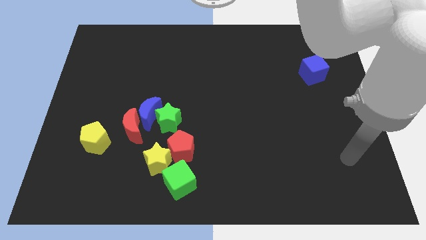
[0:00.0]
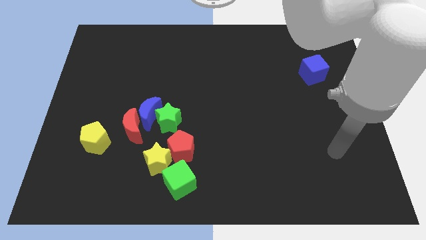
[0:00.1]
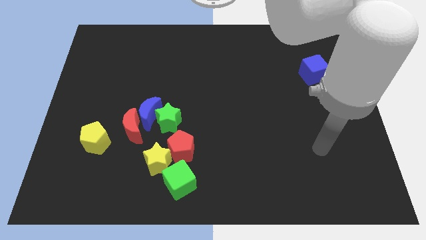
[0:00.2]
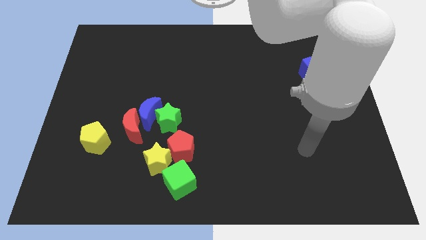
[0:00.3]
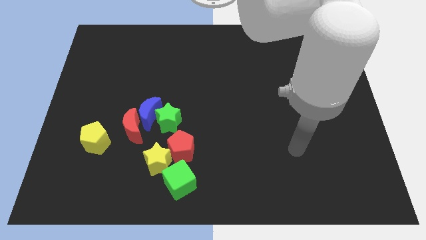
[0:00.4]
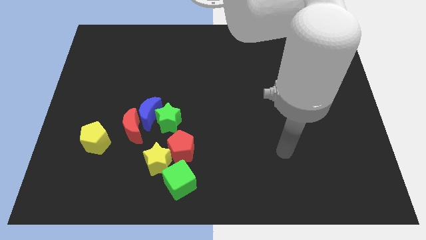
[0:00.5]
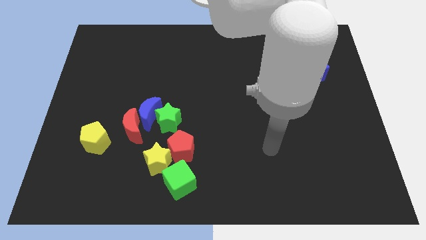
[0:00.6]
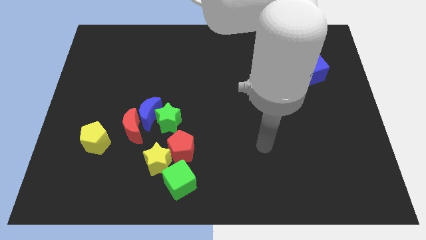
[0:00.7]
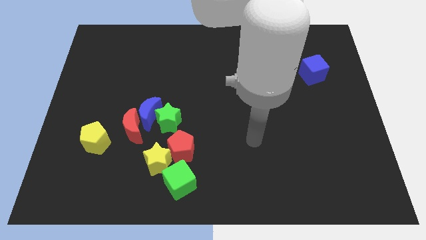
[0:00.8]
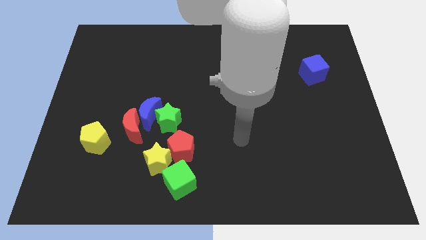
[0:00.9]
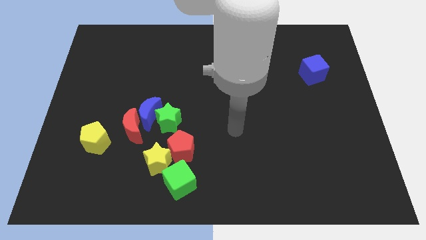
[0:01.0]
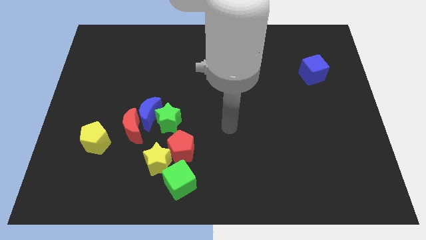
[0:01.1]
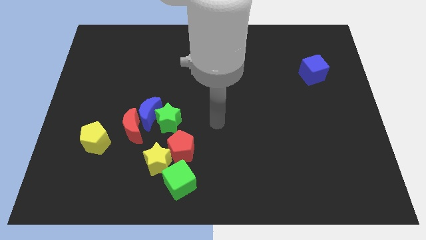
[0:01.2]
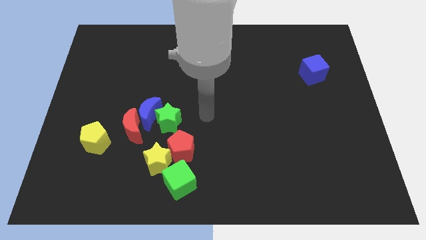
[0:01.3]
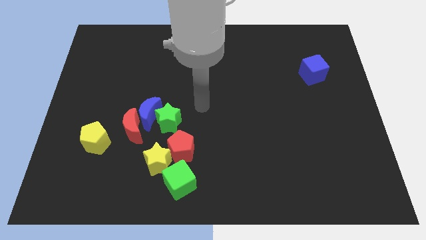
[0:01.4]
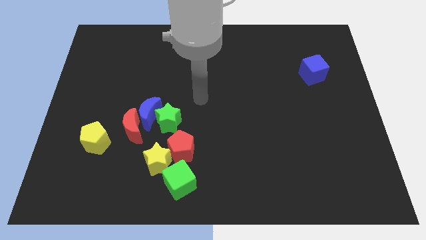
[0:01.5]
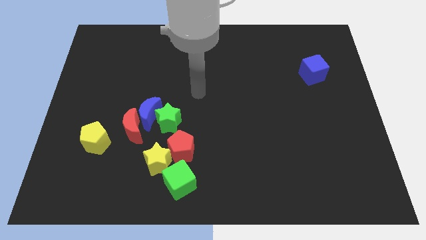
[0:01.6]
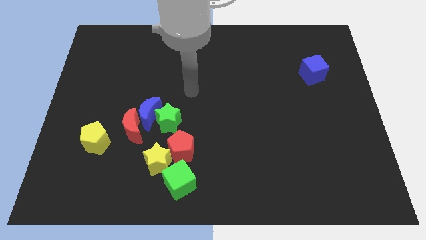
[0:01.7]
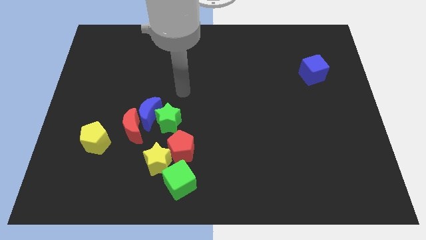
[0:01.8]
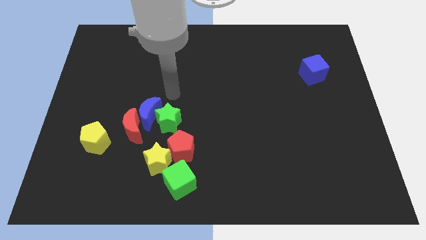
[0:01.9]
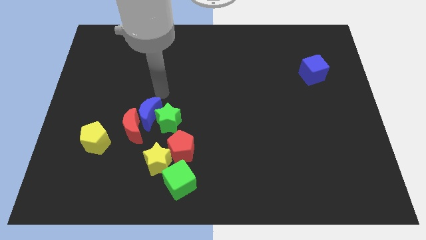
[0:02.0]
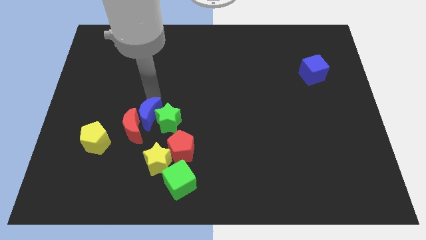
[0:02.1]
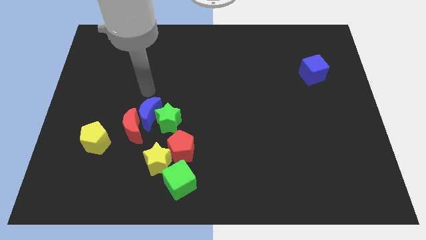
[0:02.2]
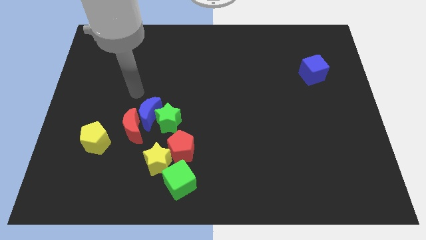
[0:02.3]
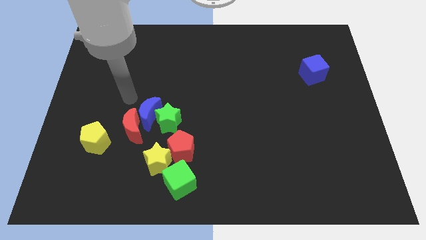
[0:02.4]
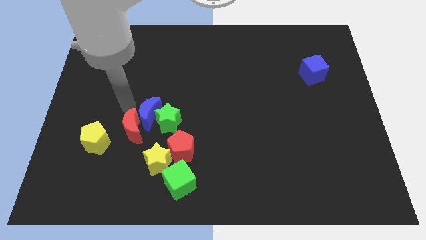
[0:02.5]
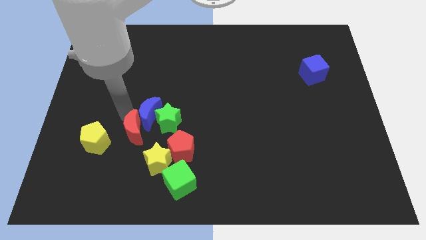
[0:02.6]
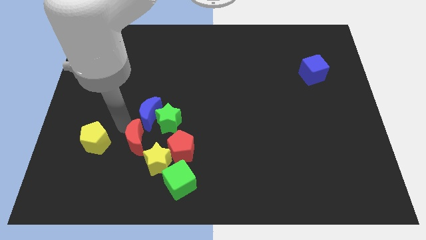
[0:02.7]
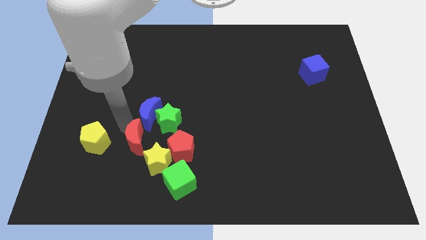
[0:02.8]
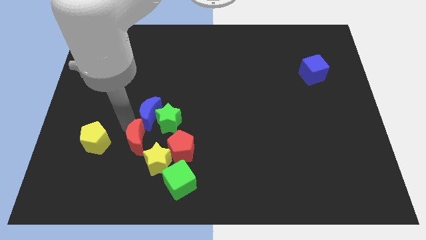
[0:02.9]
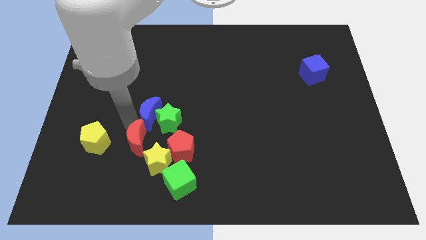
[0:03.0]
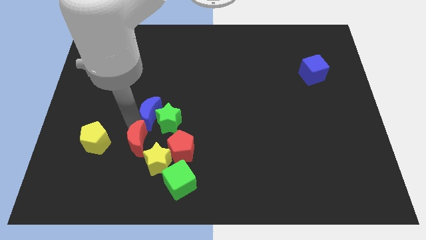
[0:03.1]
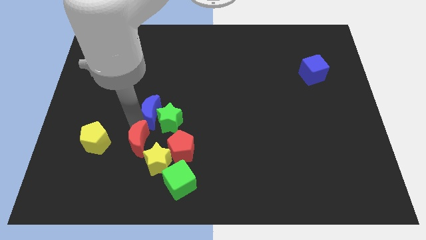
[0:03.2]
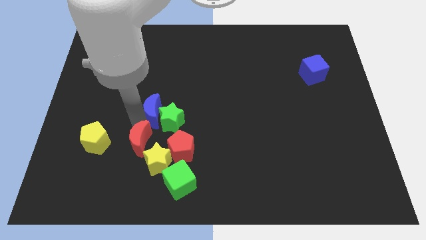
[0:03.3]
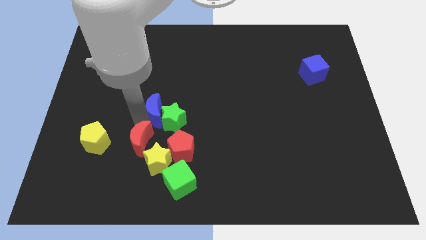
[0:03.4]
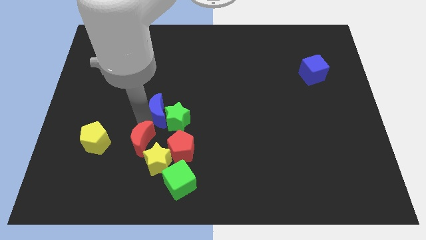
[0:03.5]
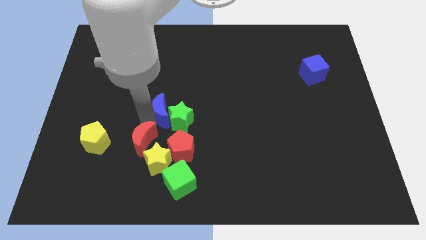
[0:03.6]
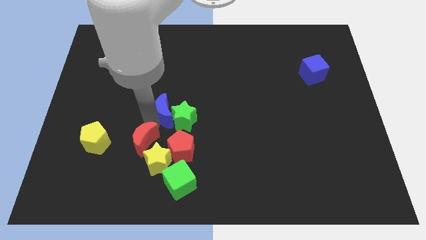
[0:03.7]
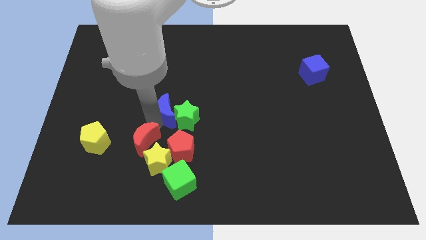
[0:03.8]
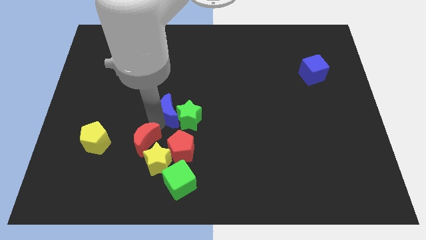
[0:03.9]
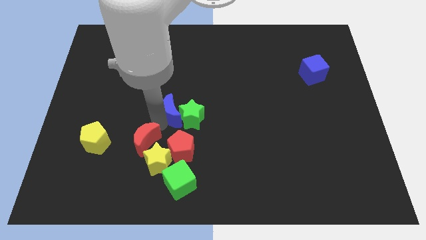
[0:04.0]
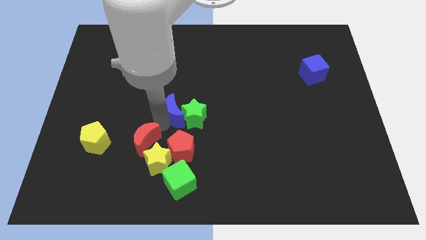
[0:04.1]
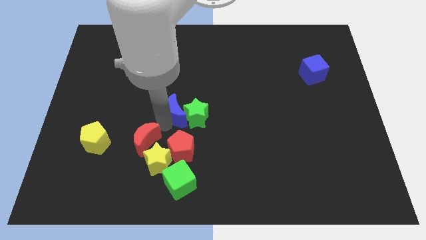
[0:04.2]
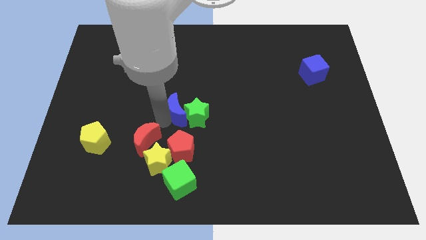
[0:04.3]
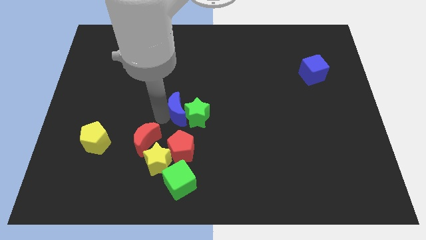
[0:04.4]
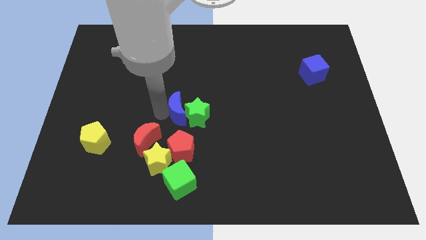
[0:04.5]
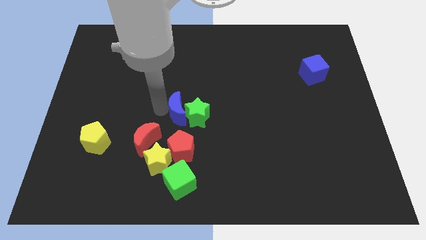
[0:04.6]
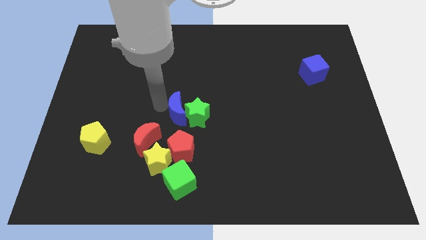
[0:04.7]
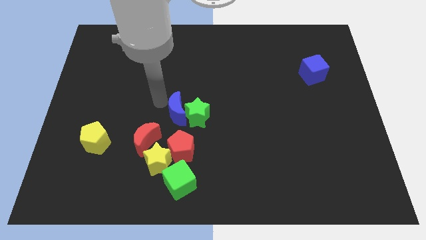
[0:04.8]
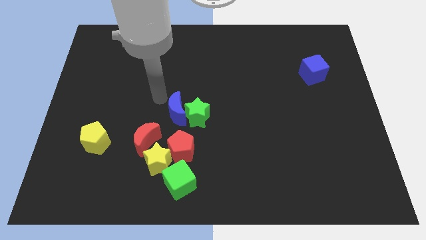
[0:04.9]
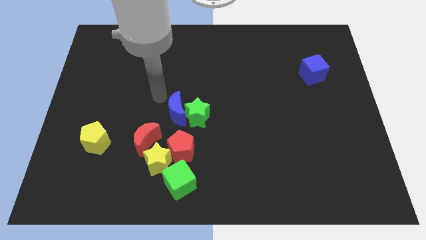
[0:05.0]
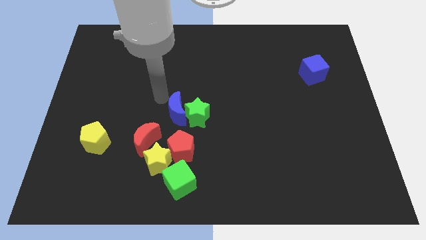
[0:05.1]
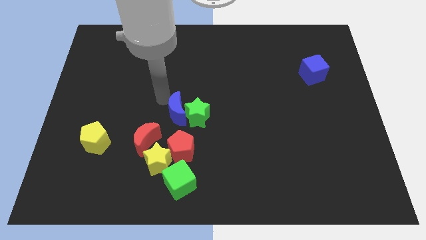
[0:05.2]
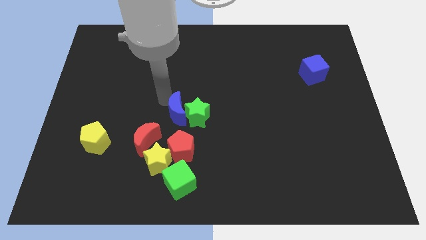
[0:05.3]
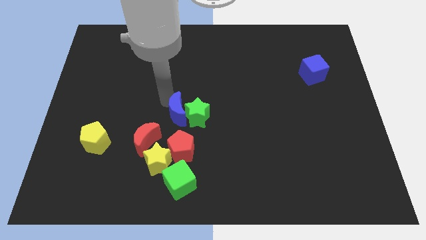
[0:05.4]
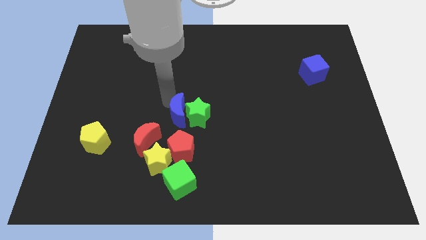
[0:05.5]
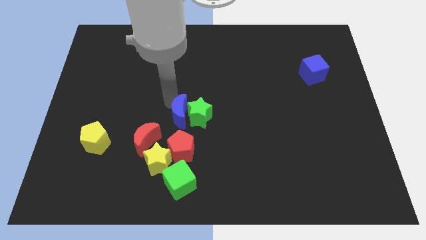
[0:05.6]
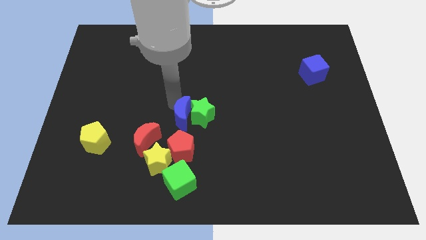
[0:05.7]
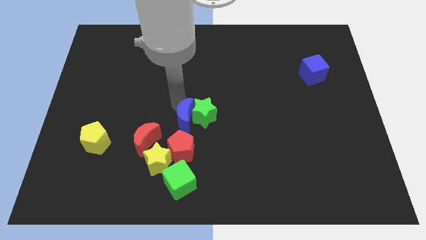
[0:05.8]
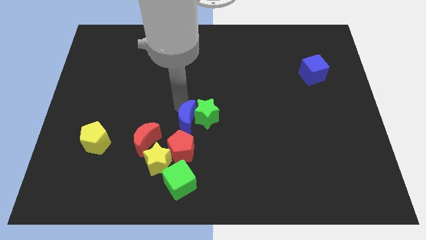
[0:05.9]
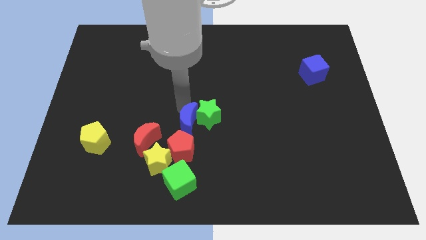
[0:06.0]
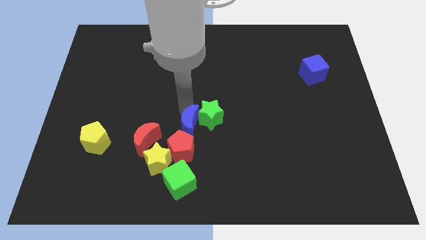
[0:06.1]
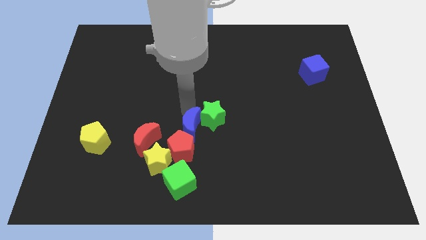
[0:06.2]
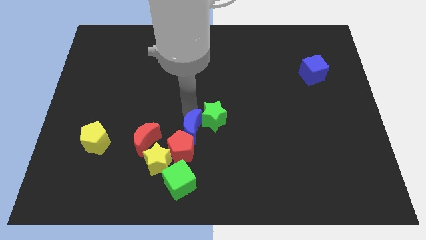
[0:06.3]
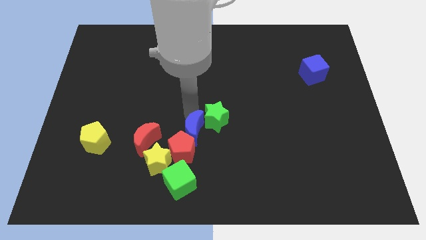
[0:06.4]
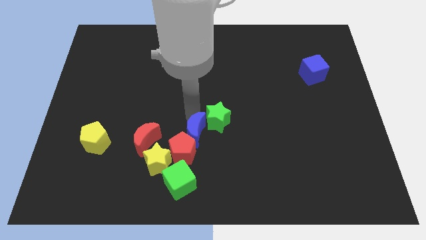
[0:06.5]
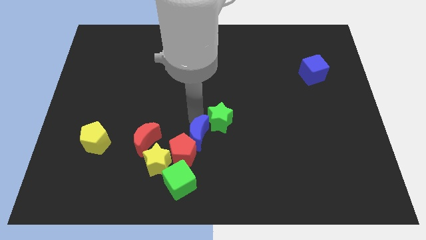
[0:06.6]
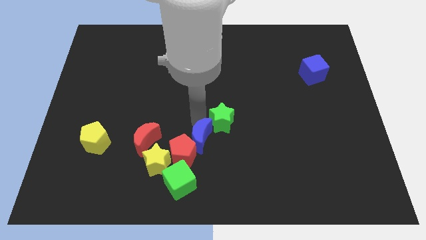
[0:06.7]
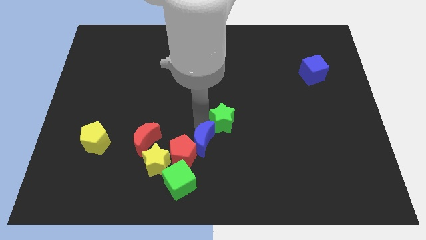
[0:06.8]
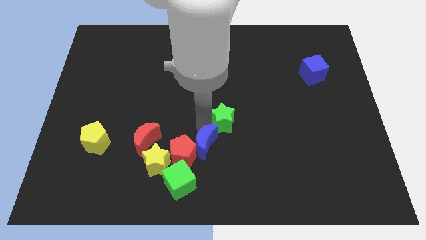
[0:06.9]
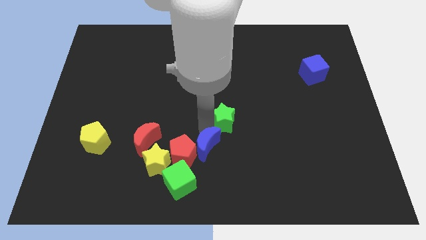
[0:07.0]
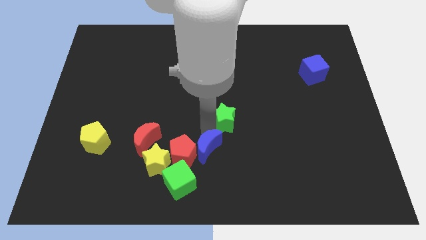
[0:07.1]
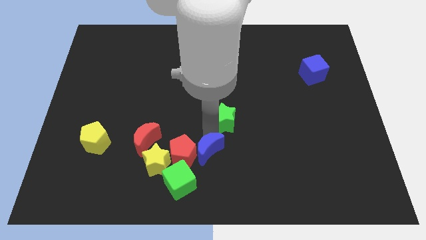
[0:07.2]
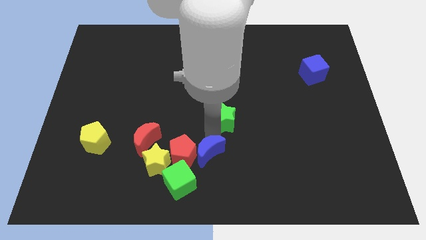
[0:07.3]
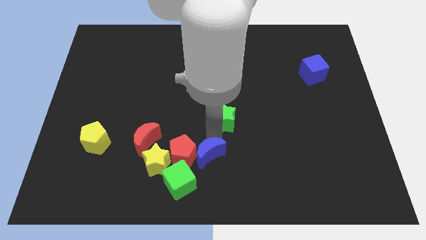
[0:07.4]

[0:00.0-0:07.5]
slide the blue moon to the bottom
